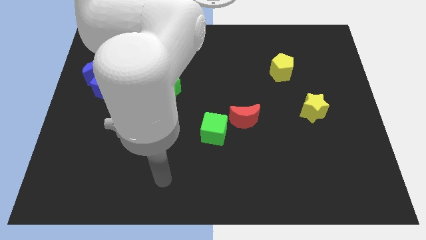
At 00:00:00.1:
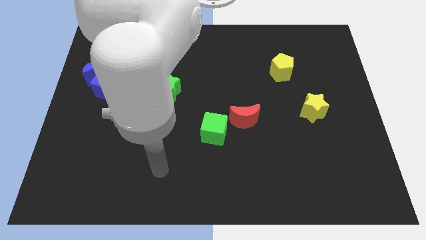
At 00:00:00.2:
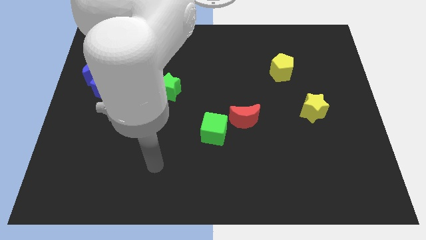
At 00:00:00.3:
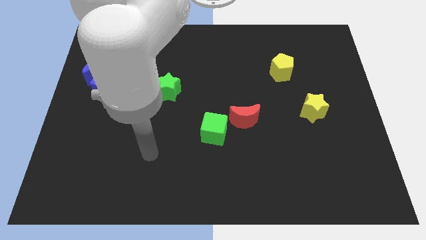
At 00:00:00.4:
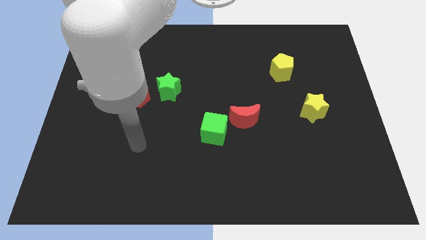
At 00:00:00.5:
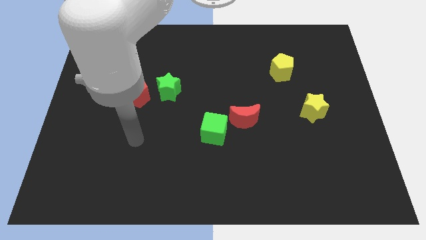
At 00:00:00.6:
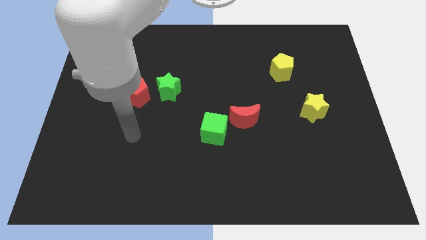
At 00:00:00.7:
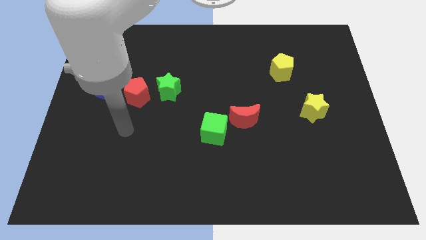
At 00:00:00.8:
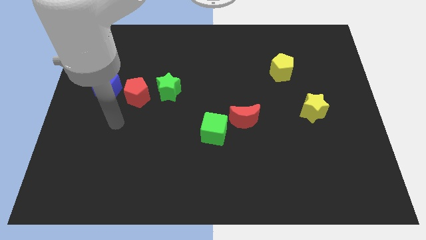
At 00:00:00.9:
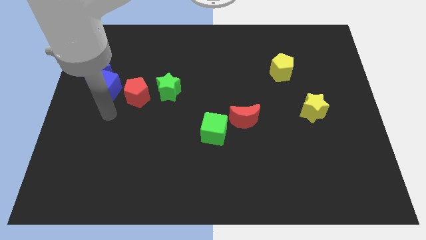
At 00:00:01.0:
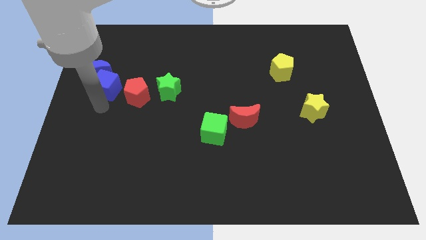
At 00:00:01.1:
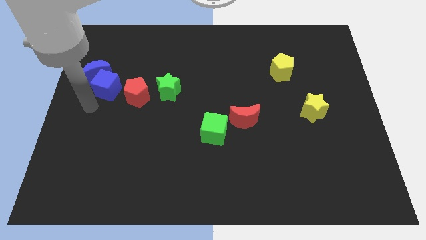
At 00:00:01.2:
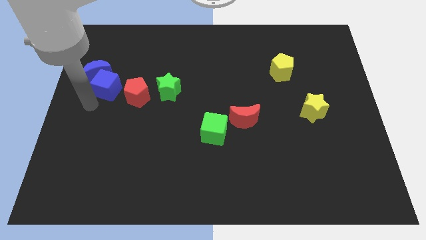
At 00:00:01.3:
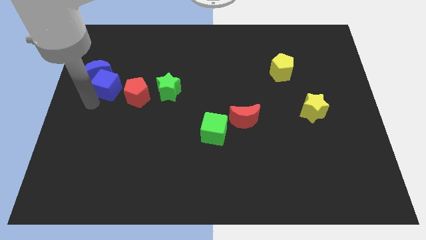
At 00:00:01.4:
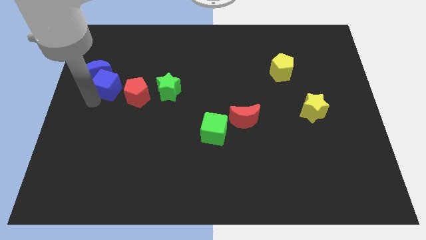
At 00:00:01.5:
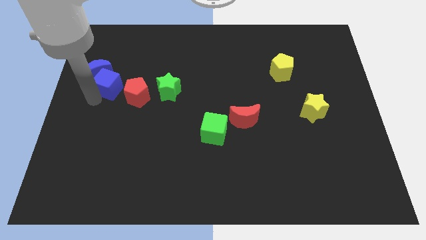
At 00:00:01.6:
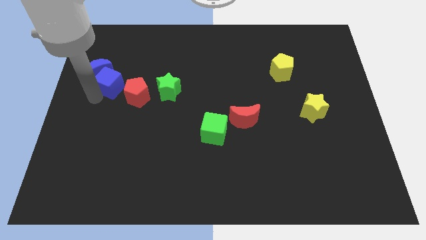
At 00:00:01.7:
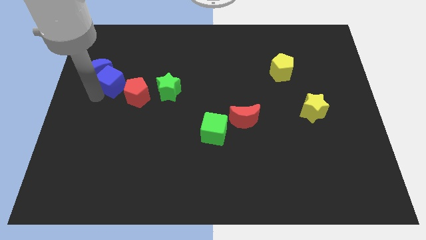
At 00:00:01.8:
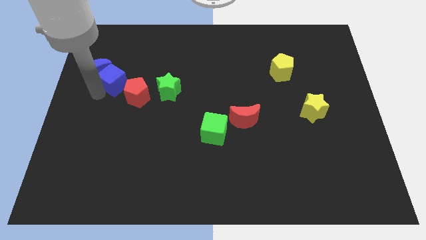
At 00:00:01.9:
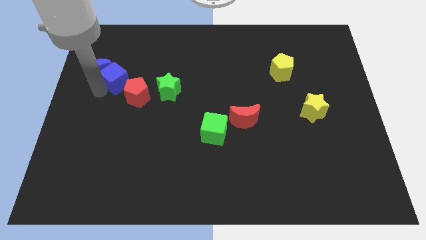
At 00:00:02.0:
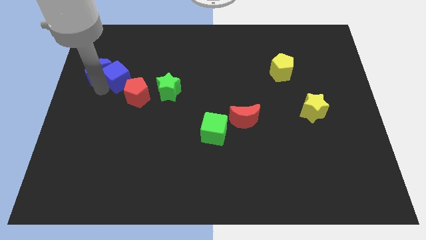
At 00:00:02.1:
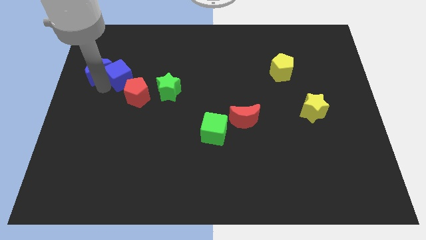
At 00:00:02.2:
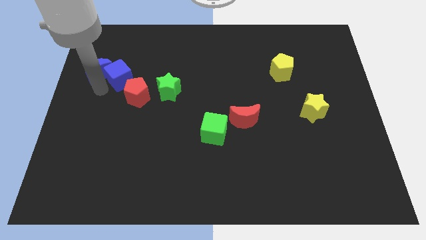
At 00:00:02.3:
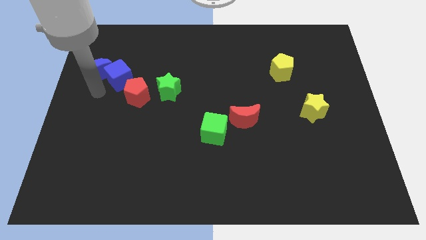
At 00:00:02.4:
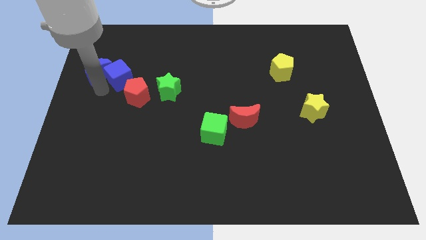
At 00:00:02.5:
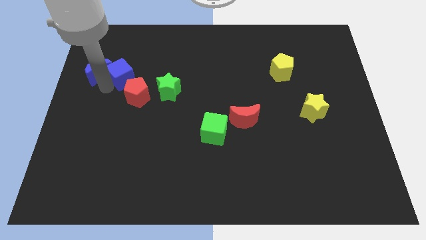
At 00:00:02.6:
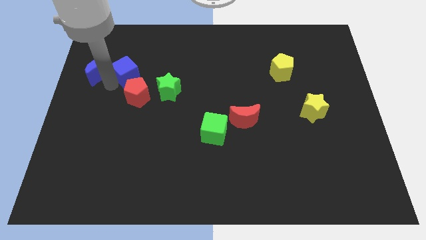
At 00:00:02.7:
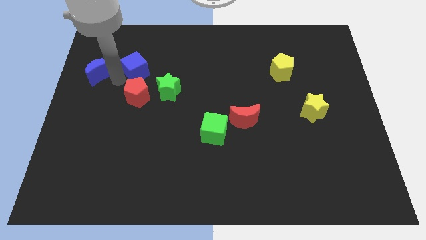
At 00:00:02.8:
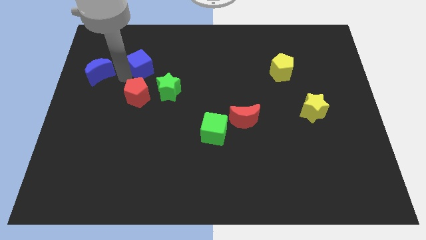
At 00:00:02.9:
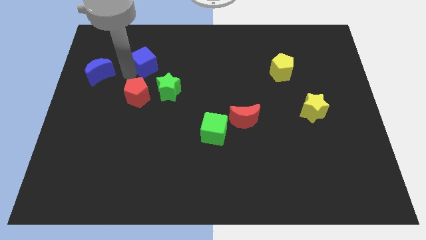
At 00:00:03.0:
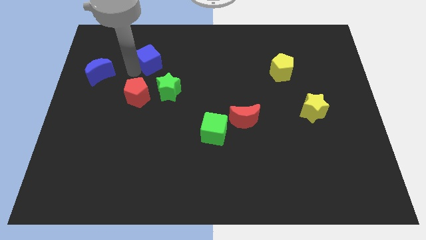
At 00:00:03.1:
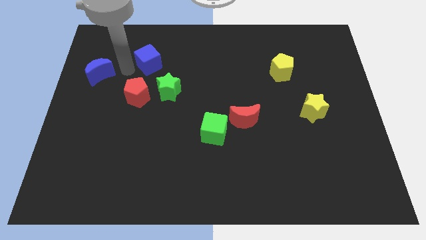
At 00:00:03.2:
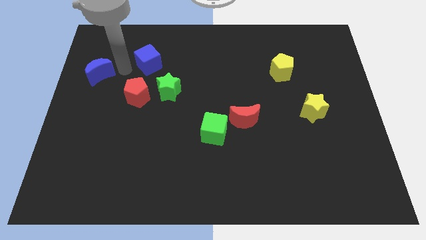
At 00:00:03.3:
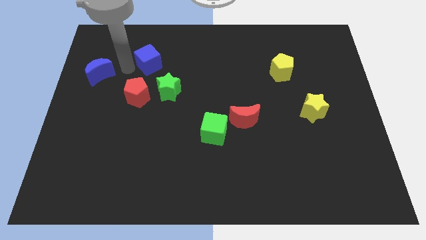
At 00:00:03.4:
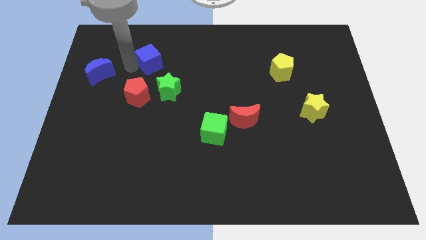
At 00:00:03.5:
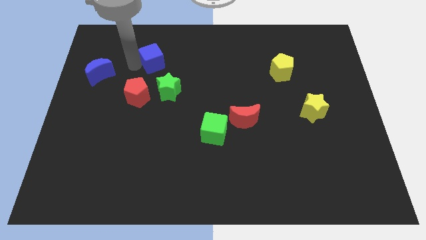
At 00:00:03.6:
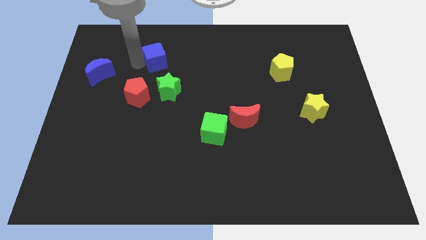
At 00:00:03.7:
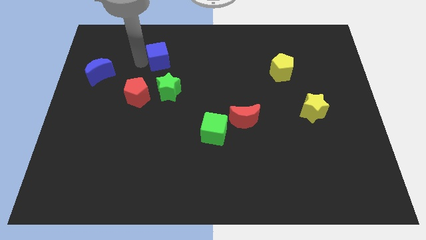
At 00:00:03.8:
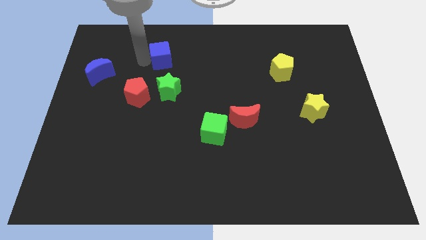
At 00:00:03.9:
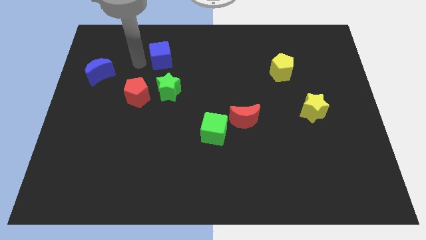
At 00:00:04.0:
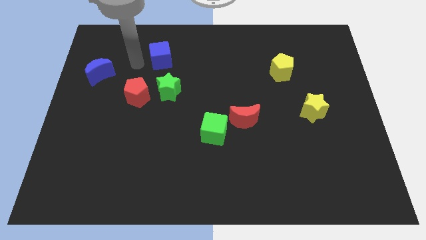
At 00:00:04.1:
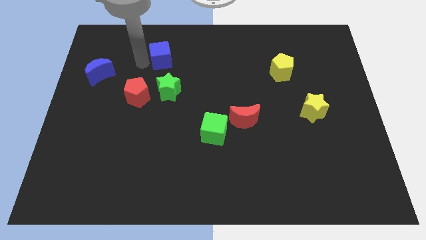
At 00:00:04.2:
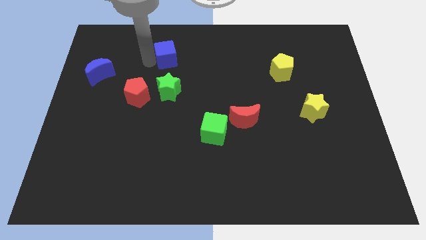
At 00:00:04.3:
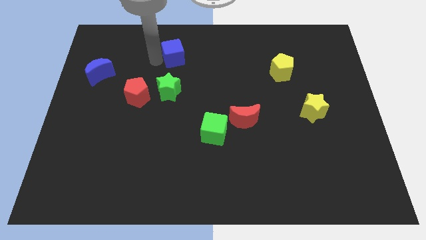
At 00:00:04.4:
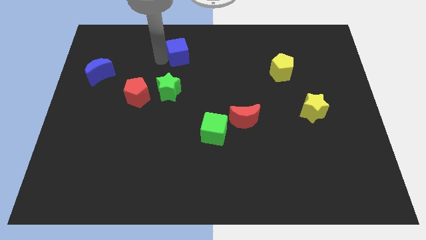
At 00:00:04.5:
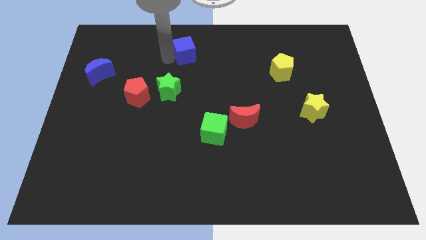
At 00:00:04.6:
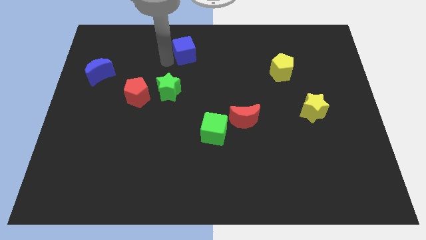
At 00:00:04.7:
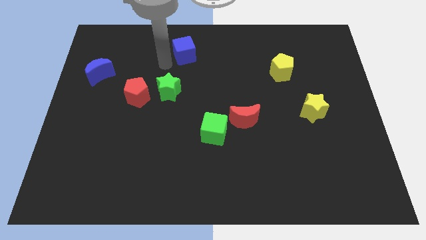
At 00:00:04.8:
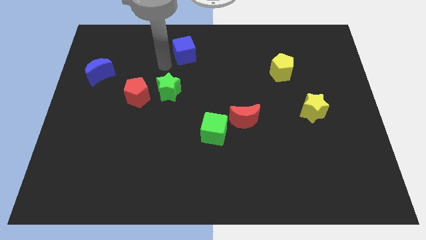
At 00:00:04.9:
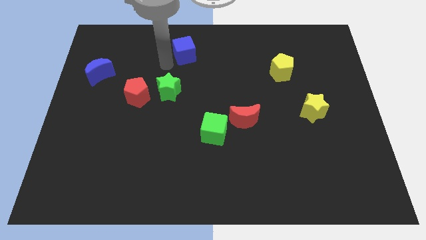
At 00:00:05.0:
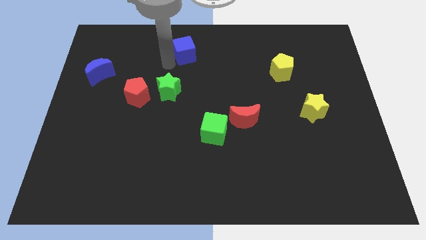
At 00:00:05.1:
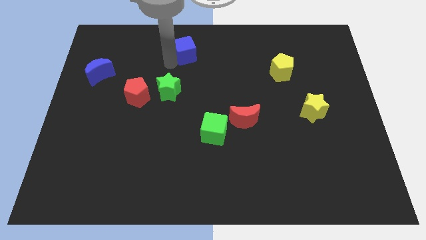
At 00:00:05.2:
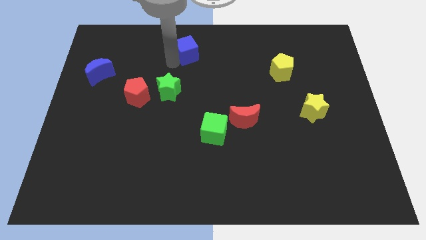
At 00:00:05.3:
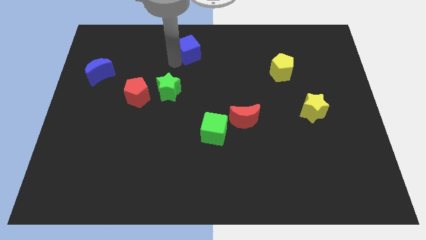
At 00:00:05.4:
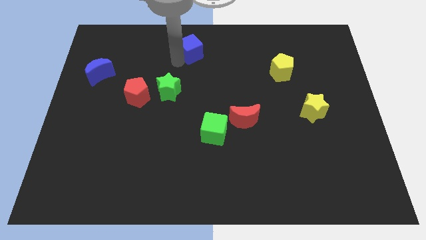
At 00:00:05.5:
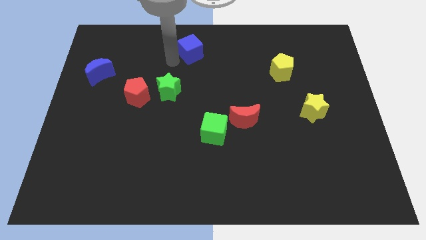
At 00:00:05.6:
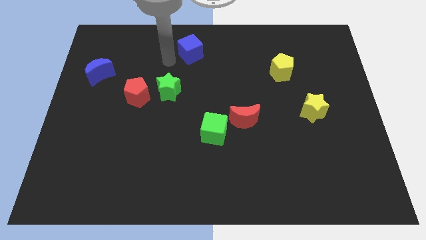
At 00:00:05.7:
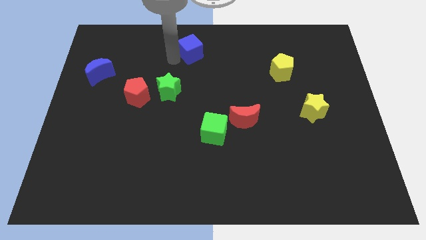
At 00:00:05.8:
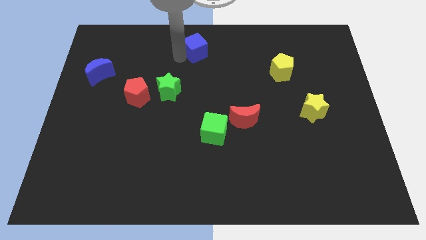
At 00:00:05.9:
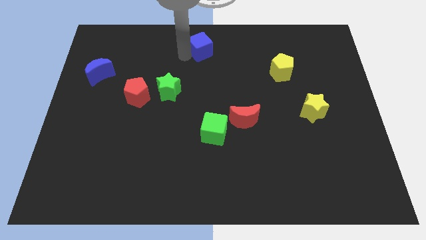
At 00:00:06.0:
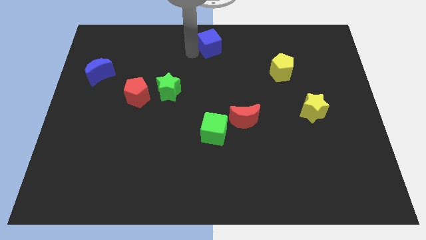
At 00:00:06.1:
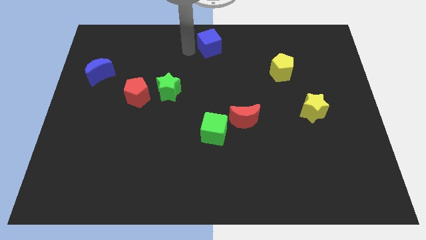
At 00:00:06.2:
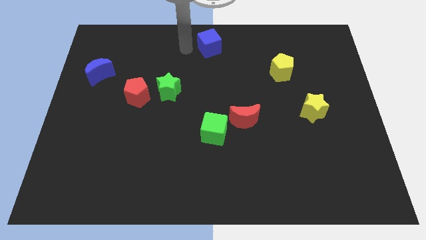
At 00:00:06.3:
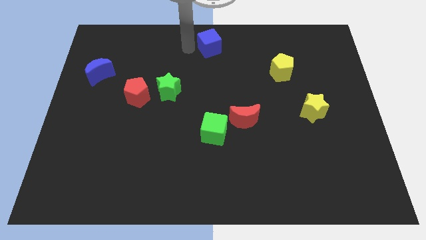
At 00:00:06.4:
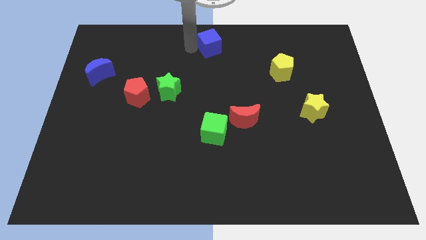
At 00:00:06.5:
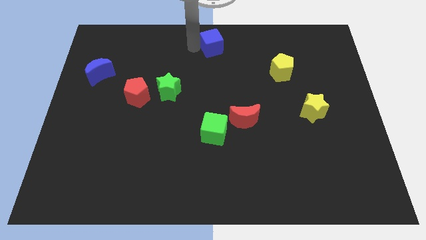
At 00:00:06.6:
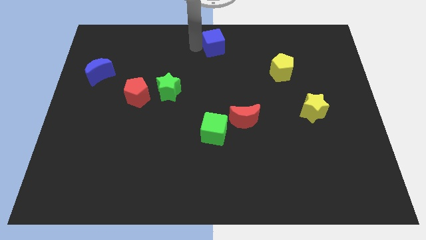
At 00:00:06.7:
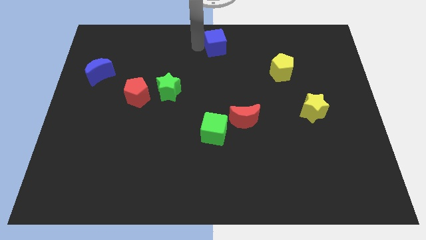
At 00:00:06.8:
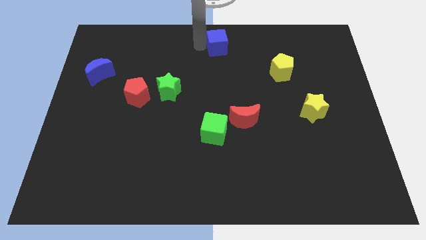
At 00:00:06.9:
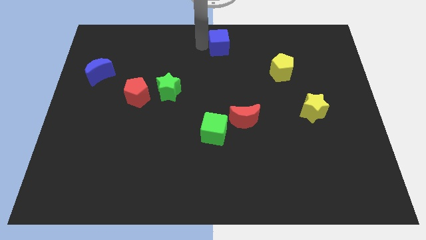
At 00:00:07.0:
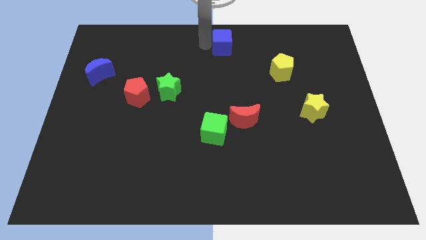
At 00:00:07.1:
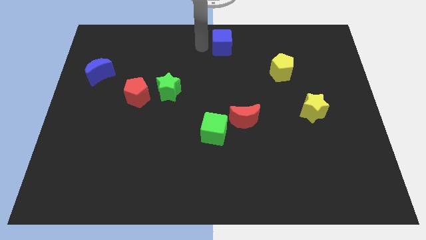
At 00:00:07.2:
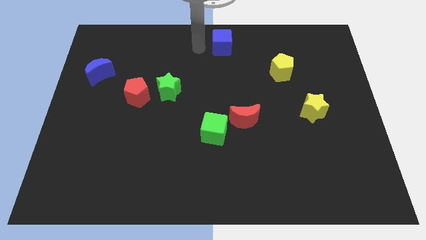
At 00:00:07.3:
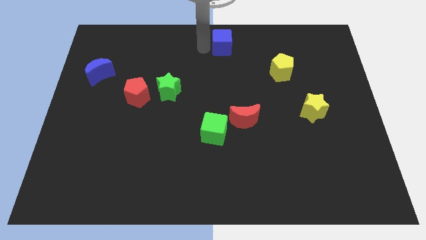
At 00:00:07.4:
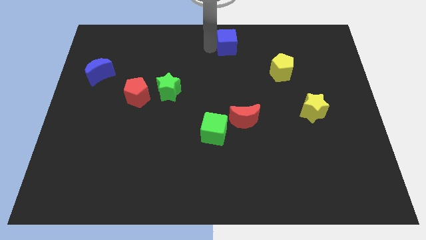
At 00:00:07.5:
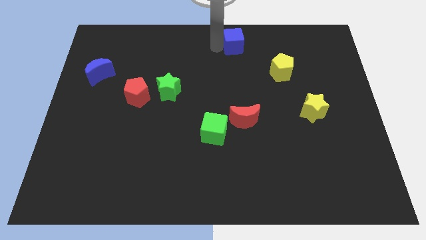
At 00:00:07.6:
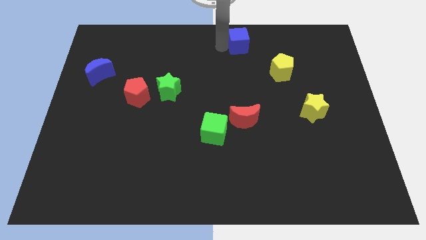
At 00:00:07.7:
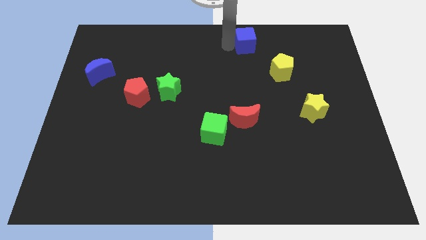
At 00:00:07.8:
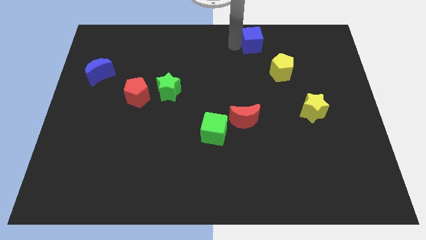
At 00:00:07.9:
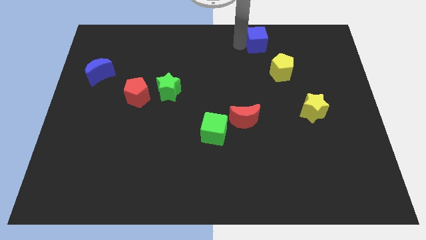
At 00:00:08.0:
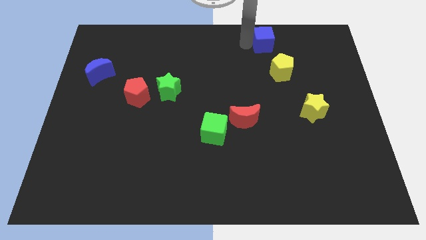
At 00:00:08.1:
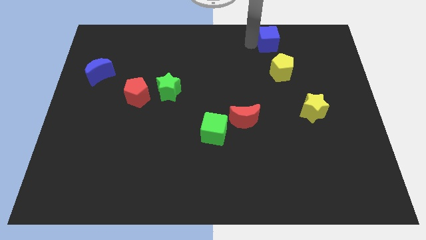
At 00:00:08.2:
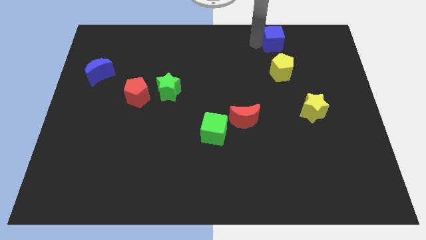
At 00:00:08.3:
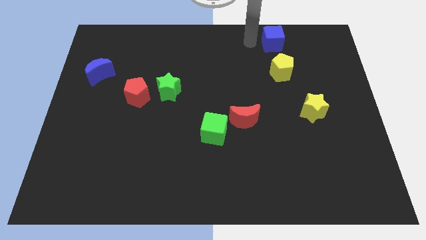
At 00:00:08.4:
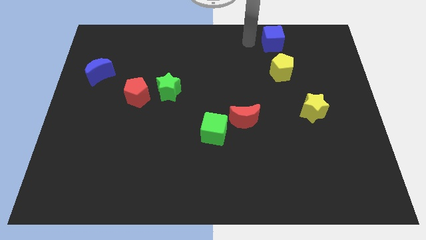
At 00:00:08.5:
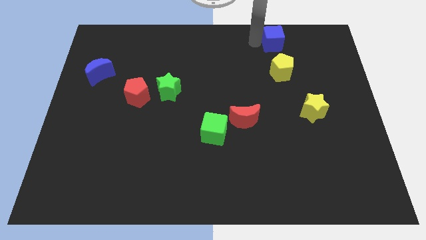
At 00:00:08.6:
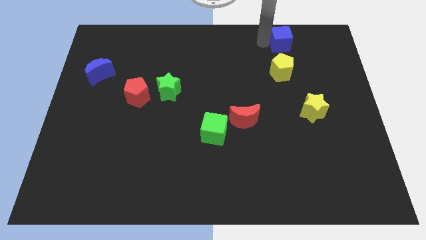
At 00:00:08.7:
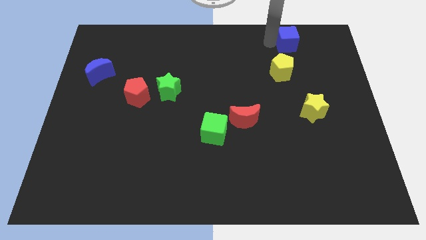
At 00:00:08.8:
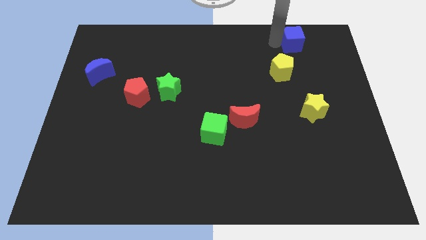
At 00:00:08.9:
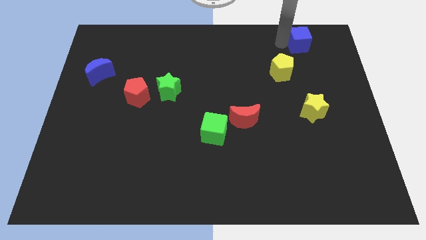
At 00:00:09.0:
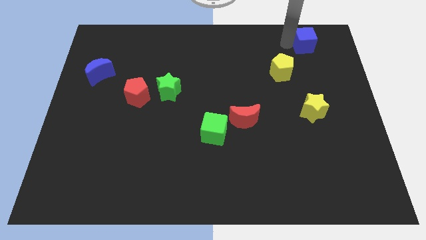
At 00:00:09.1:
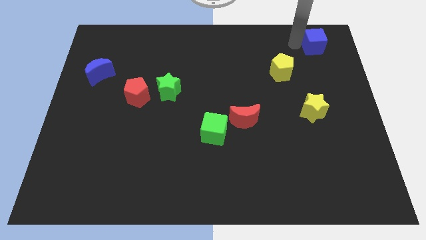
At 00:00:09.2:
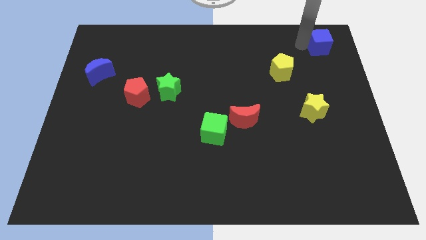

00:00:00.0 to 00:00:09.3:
put the blue cube to the top right
